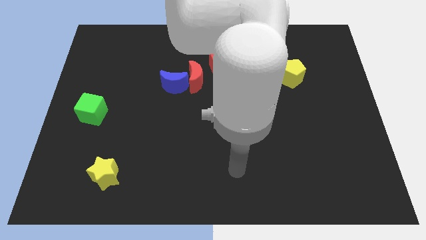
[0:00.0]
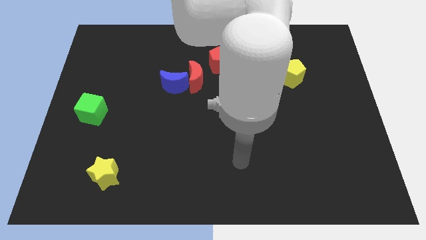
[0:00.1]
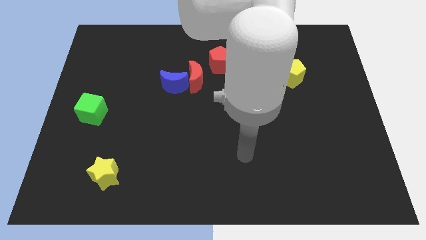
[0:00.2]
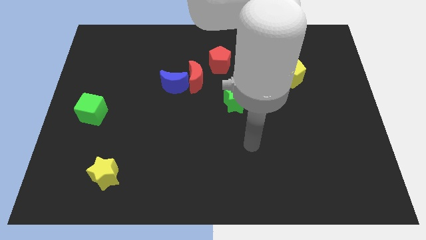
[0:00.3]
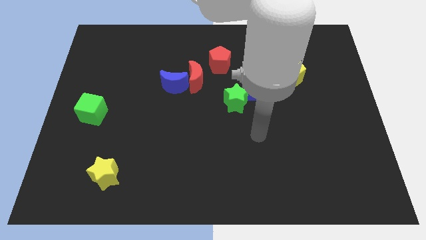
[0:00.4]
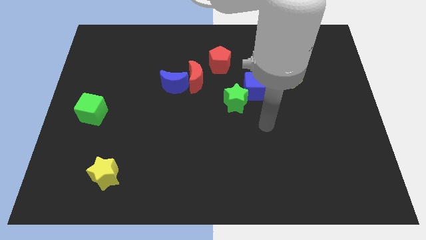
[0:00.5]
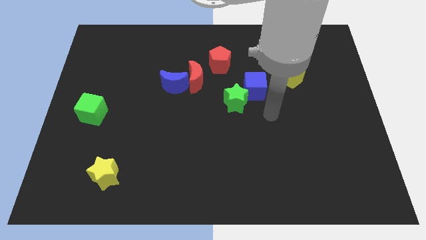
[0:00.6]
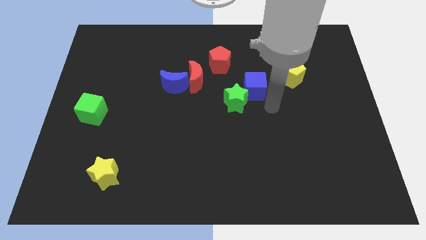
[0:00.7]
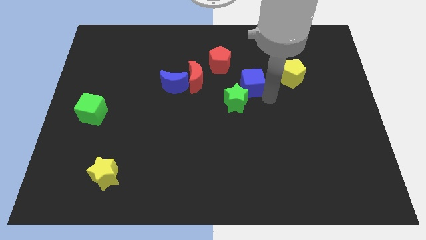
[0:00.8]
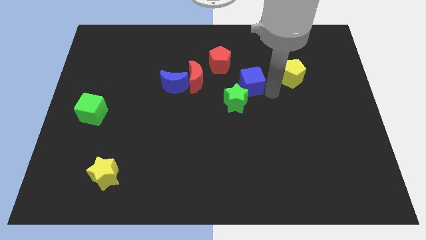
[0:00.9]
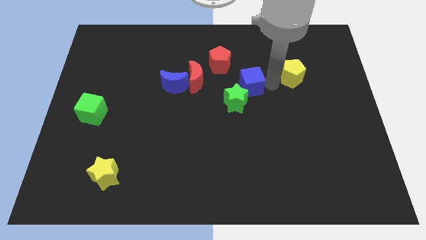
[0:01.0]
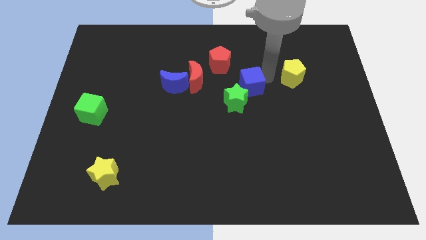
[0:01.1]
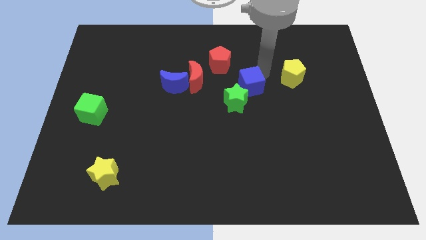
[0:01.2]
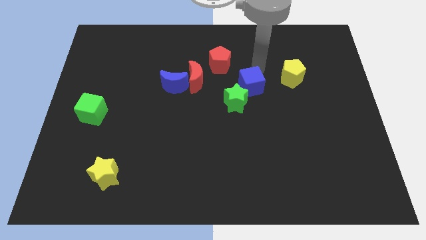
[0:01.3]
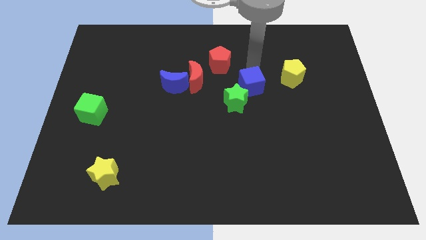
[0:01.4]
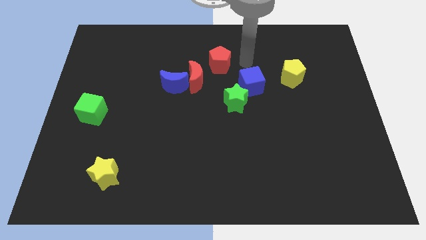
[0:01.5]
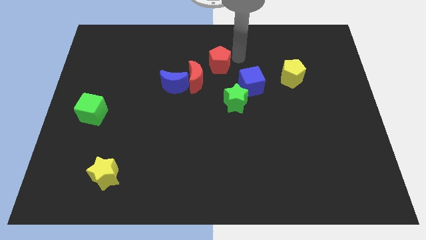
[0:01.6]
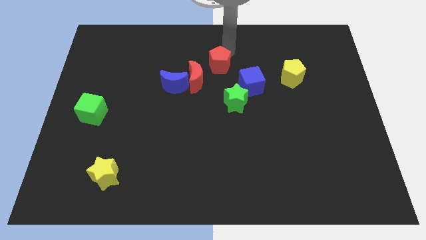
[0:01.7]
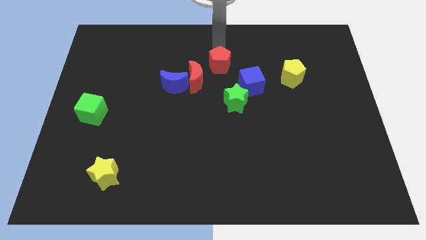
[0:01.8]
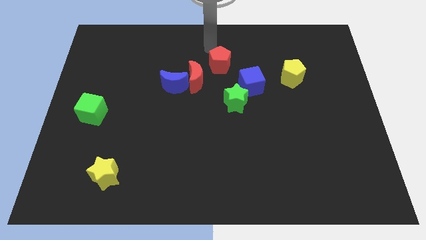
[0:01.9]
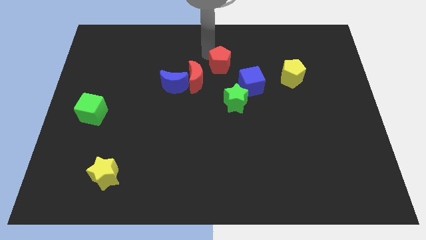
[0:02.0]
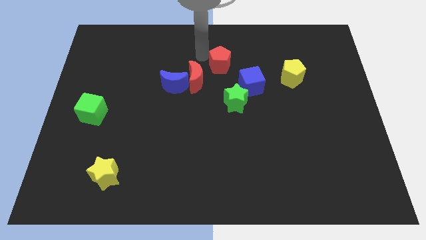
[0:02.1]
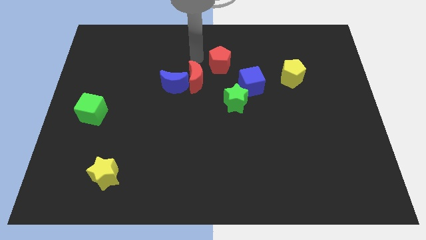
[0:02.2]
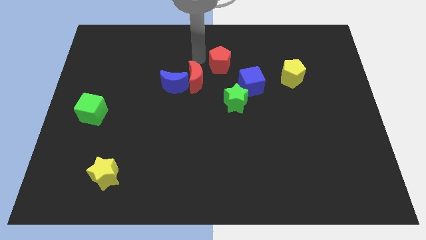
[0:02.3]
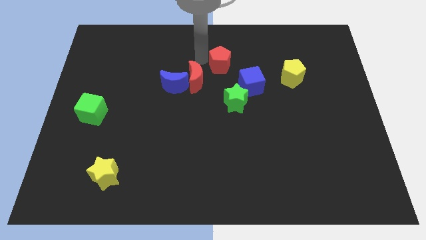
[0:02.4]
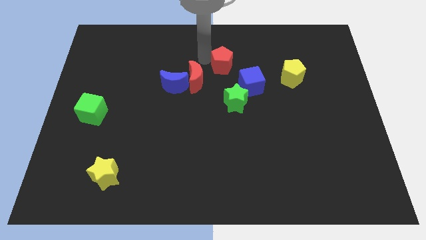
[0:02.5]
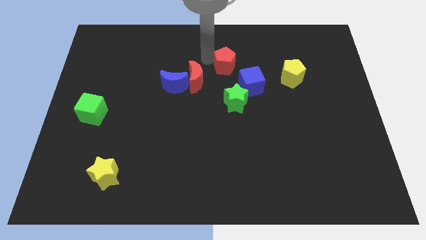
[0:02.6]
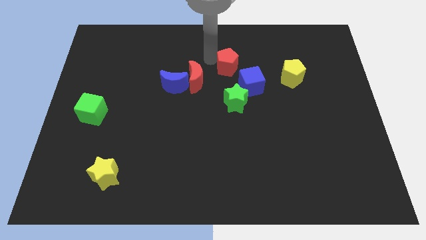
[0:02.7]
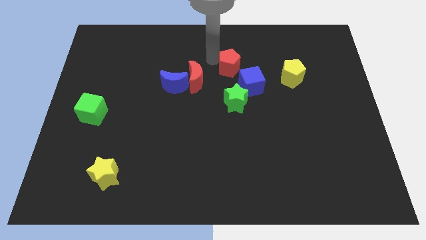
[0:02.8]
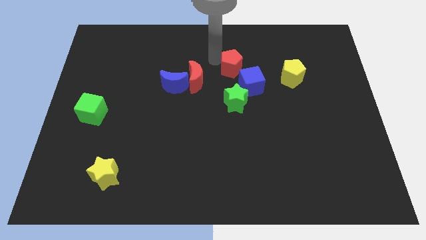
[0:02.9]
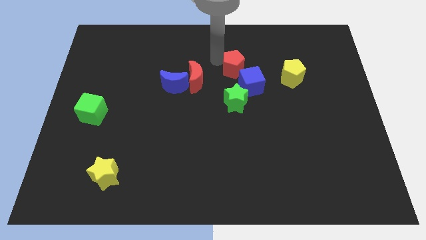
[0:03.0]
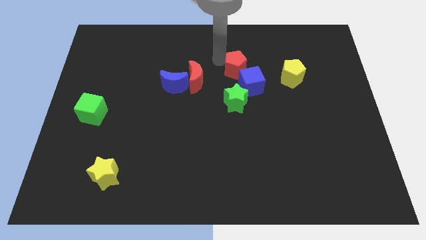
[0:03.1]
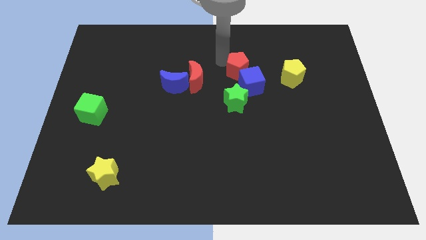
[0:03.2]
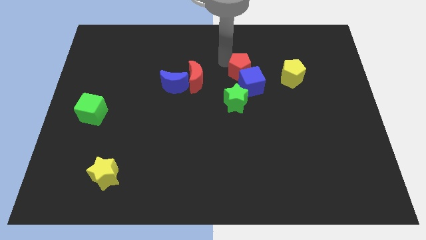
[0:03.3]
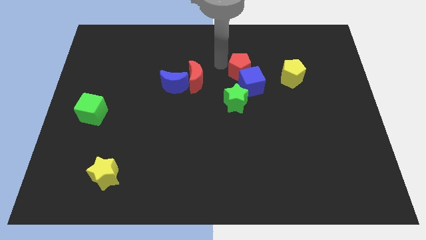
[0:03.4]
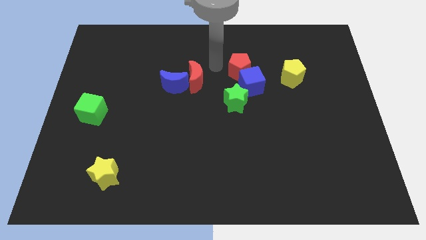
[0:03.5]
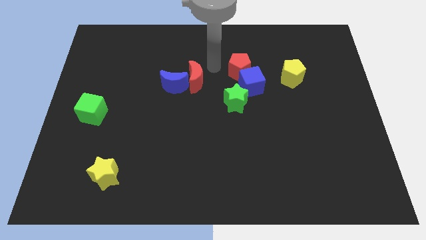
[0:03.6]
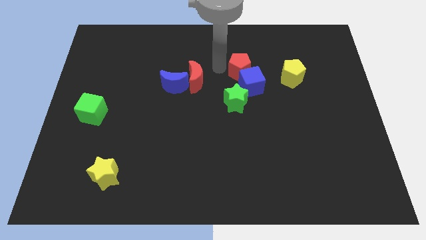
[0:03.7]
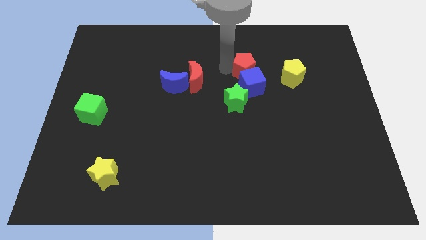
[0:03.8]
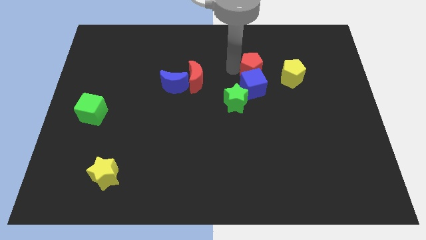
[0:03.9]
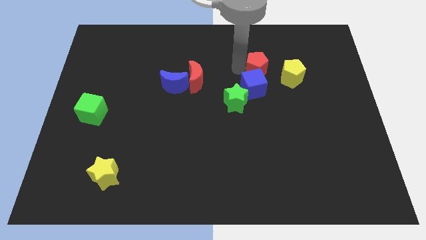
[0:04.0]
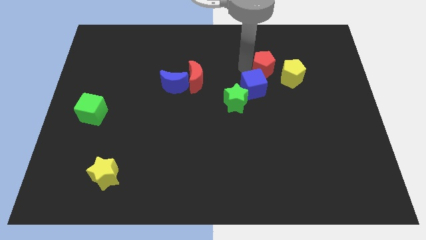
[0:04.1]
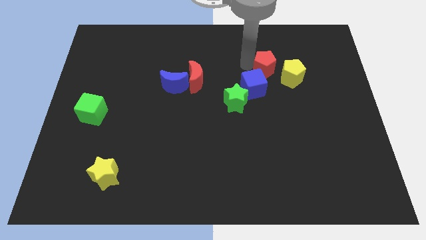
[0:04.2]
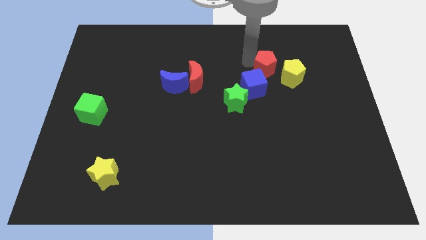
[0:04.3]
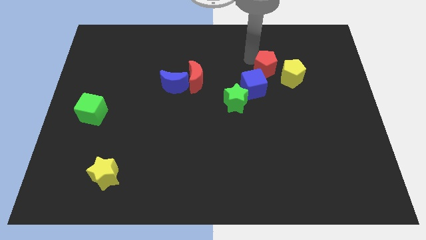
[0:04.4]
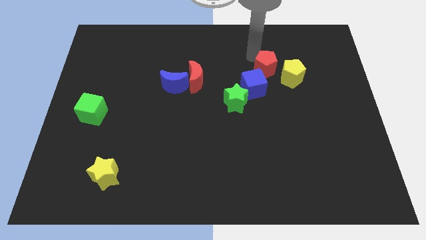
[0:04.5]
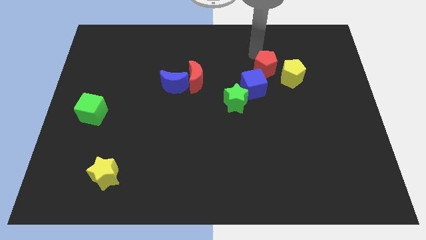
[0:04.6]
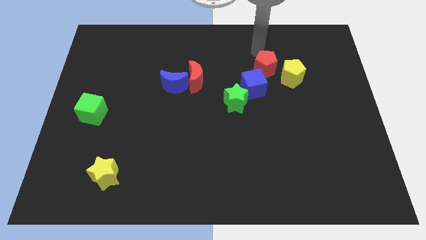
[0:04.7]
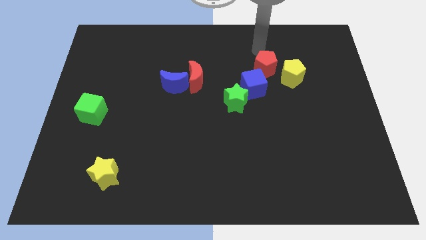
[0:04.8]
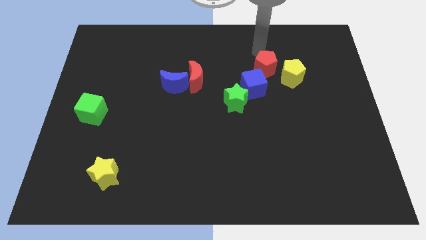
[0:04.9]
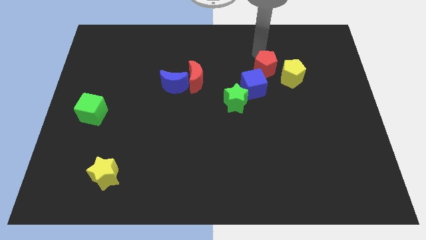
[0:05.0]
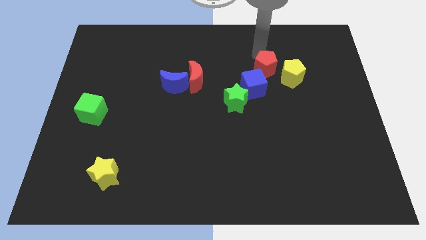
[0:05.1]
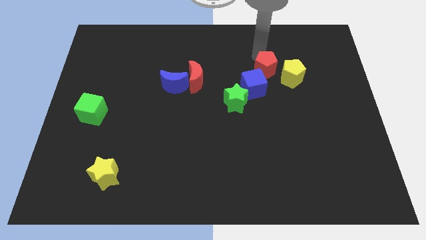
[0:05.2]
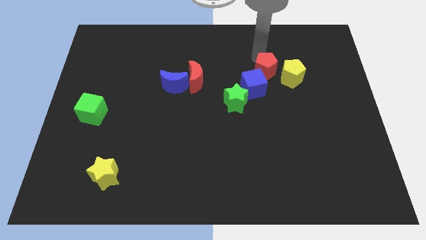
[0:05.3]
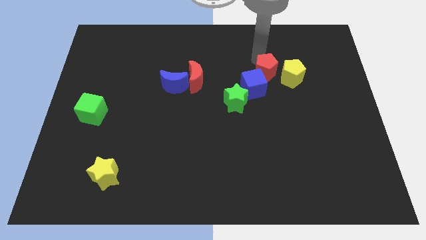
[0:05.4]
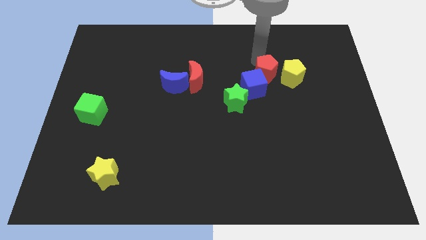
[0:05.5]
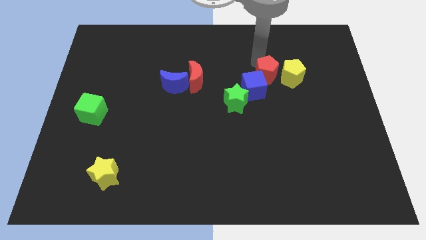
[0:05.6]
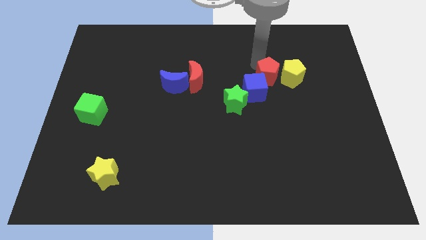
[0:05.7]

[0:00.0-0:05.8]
move the red pentagon diagonally down and to the left of the yellow pentagon

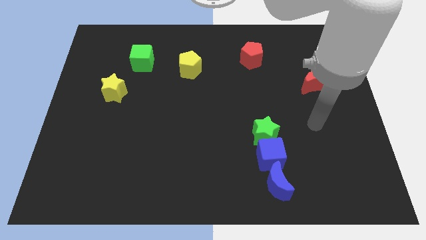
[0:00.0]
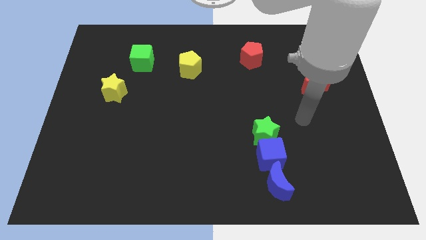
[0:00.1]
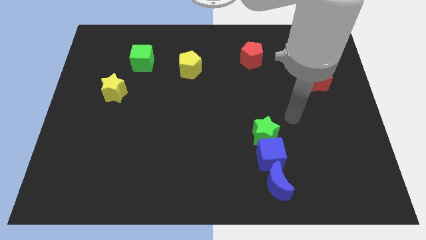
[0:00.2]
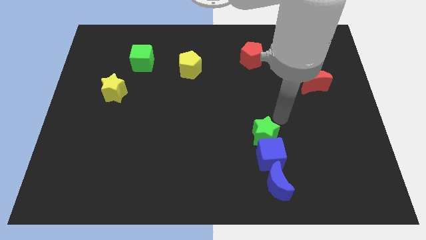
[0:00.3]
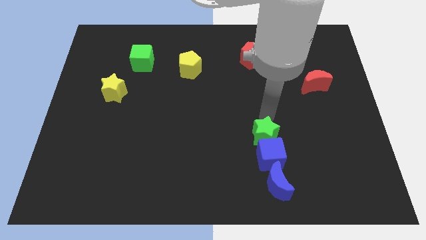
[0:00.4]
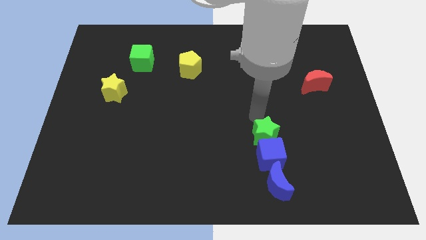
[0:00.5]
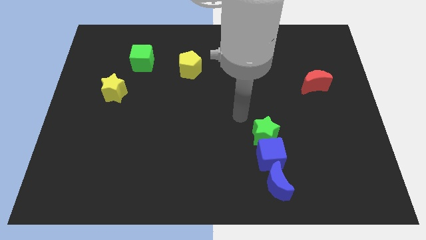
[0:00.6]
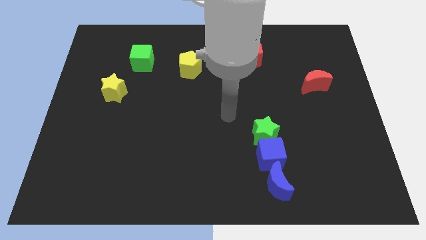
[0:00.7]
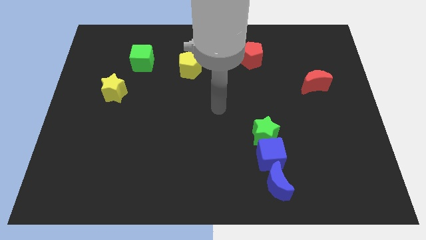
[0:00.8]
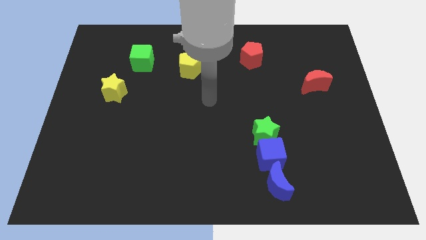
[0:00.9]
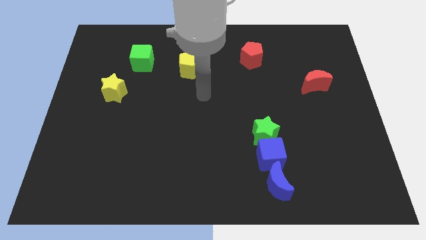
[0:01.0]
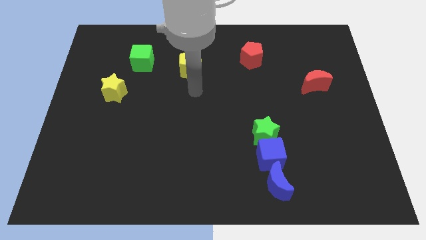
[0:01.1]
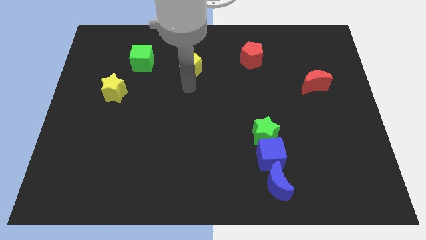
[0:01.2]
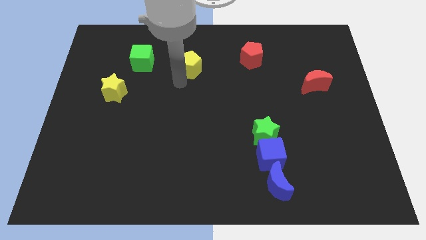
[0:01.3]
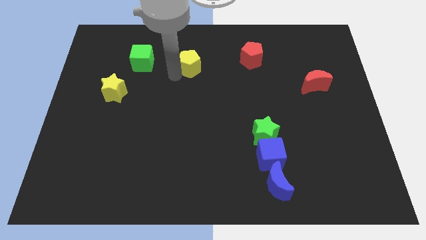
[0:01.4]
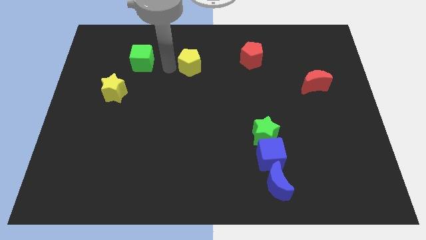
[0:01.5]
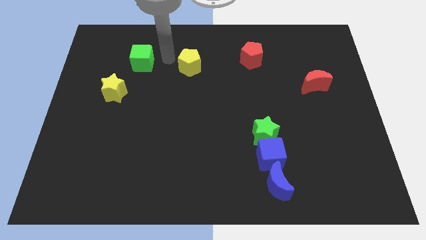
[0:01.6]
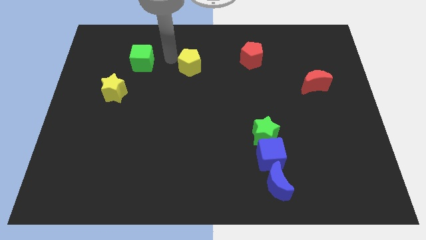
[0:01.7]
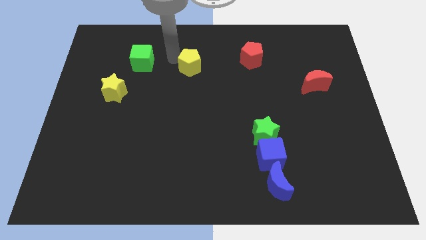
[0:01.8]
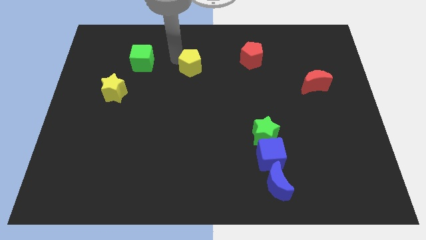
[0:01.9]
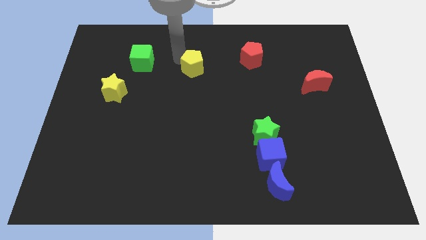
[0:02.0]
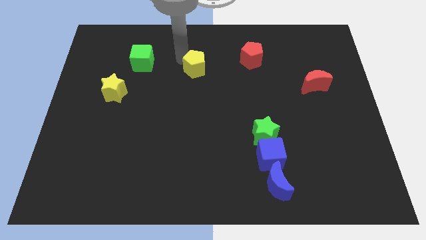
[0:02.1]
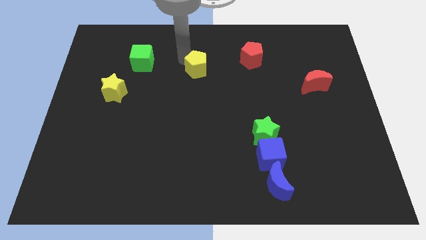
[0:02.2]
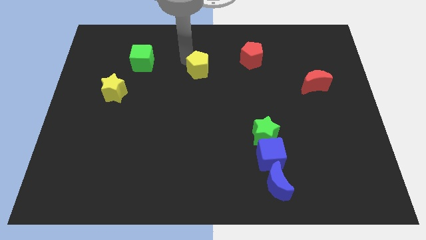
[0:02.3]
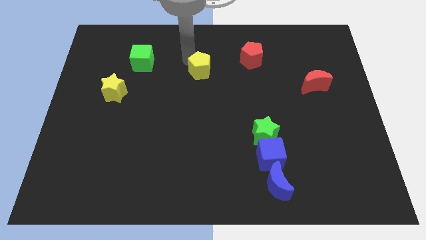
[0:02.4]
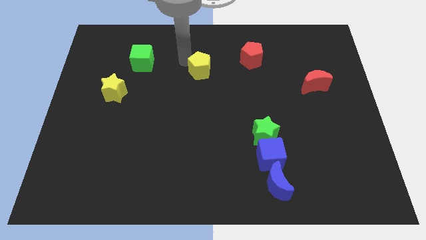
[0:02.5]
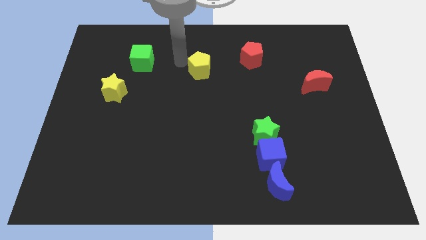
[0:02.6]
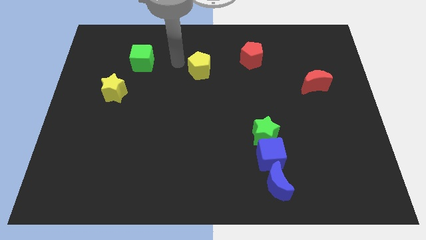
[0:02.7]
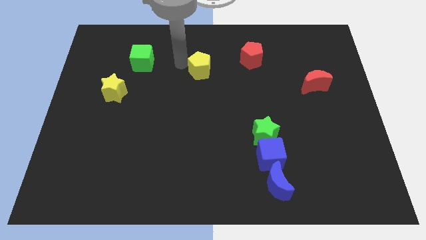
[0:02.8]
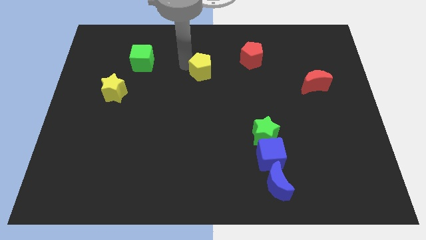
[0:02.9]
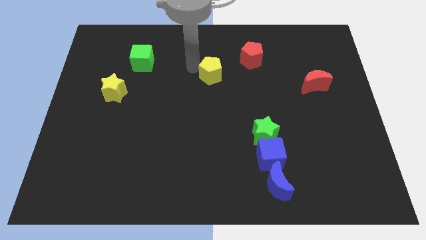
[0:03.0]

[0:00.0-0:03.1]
push the yellow pentagon diagonally down and to the left of the red pentagon
